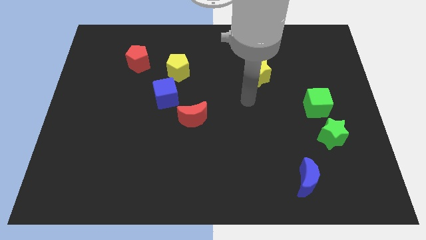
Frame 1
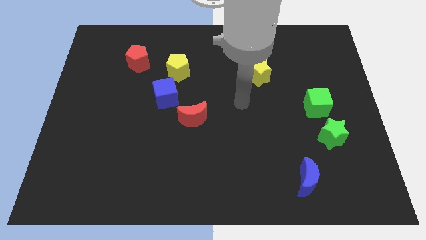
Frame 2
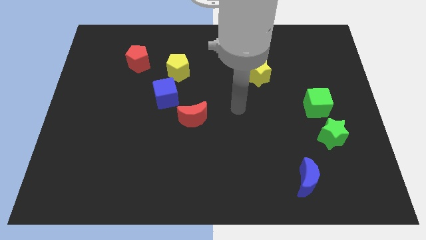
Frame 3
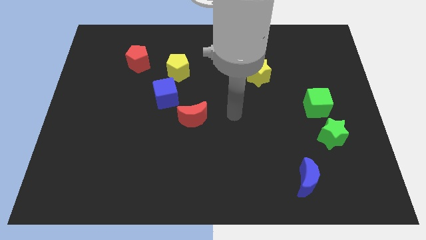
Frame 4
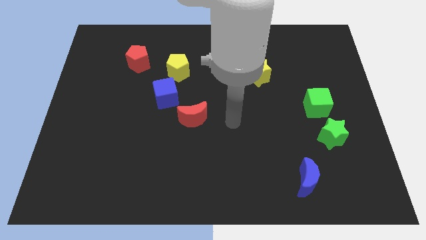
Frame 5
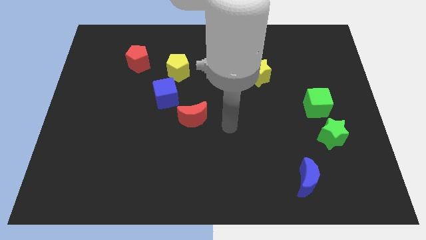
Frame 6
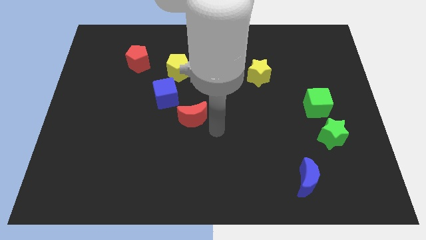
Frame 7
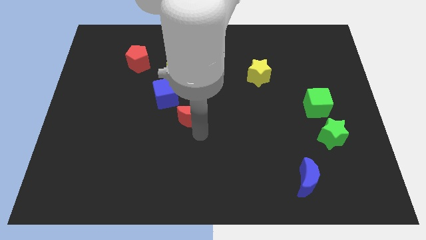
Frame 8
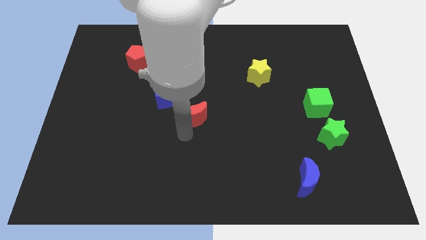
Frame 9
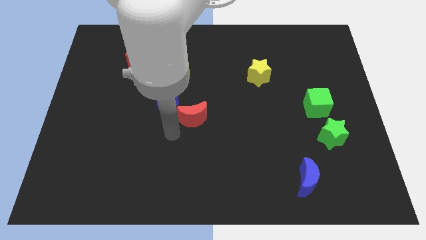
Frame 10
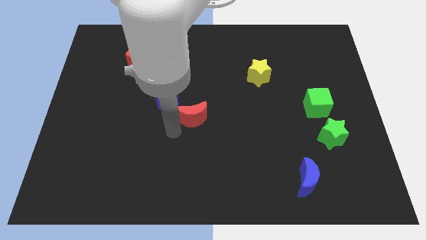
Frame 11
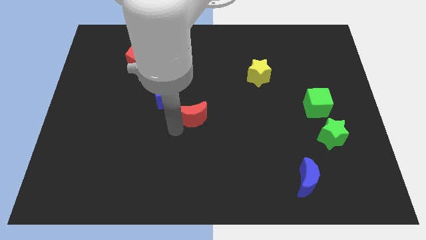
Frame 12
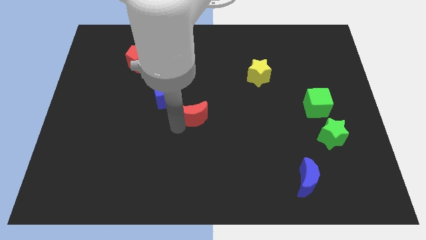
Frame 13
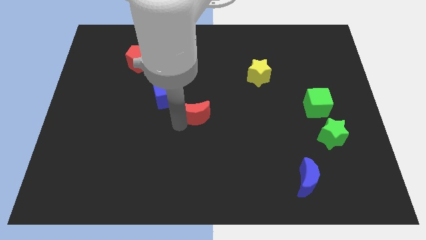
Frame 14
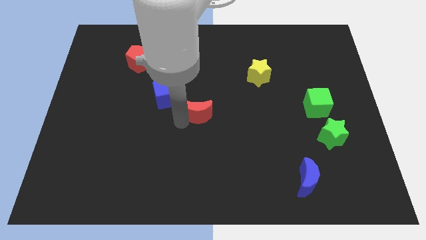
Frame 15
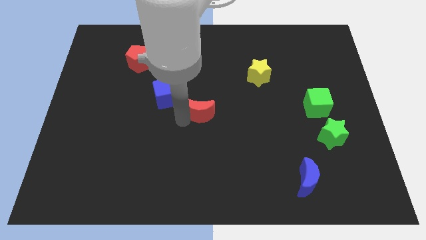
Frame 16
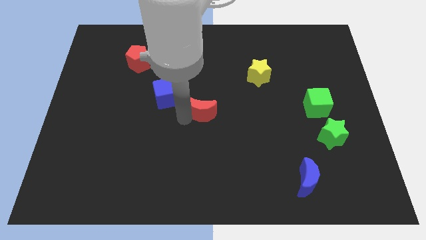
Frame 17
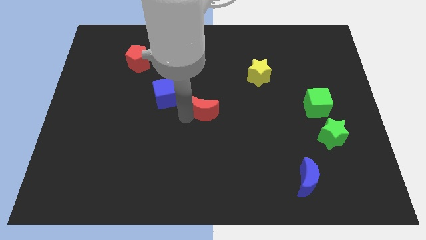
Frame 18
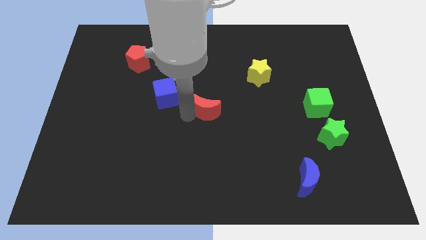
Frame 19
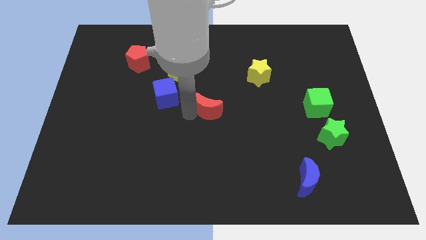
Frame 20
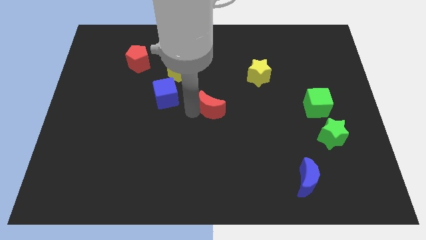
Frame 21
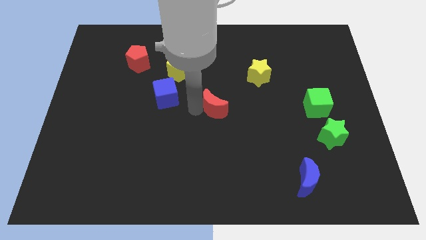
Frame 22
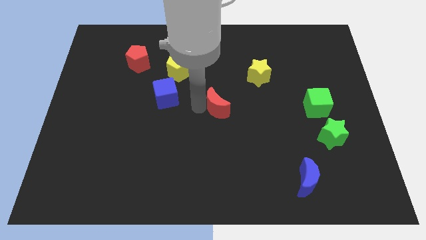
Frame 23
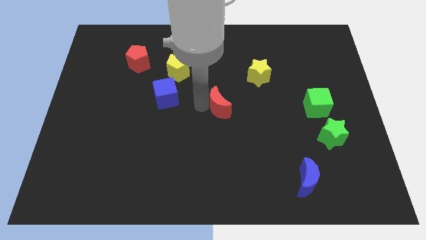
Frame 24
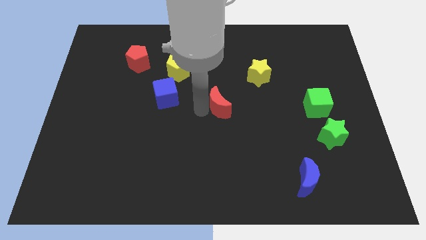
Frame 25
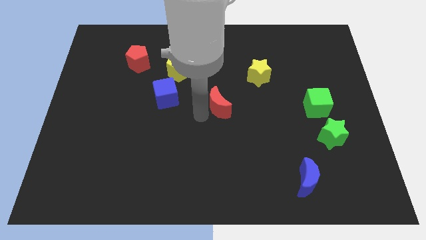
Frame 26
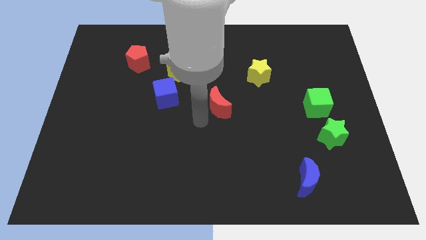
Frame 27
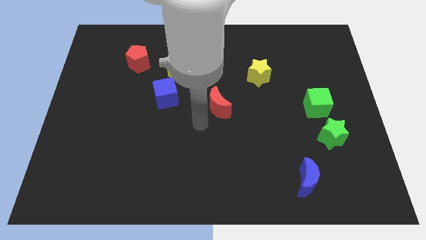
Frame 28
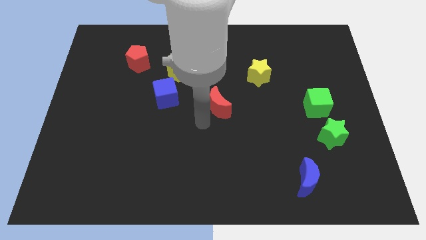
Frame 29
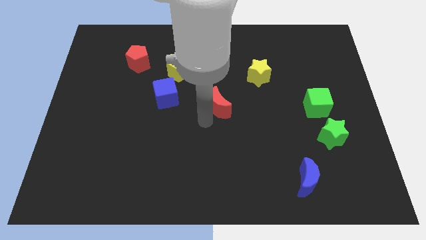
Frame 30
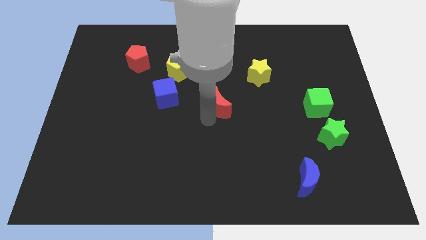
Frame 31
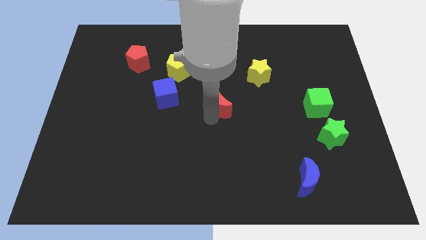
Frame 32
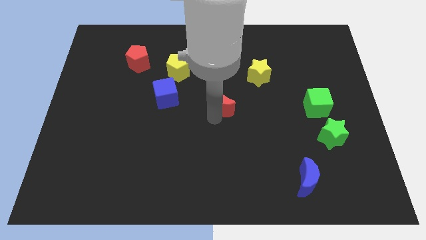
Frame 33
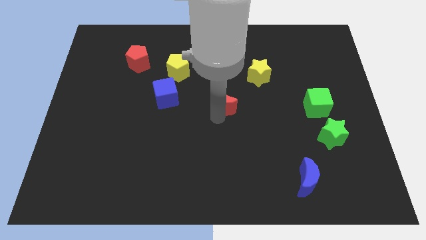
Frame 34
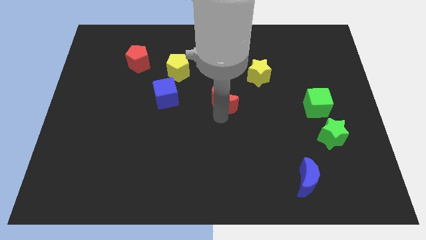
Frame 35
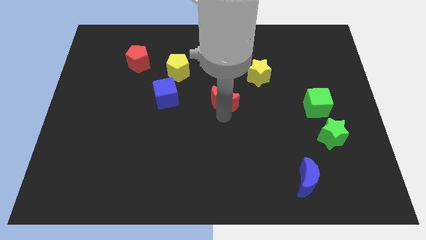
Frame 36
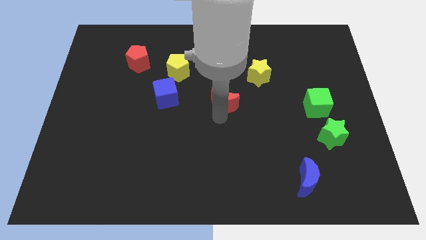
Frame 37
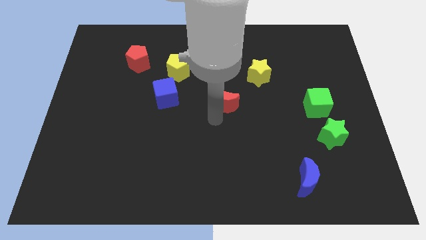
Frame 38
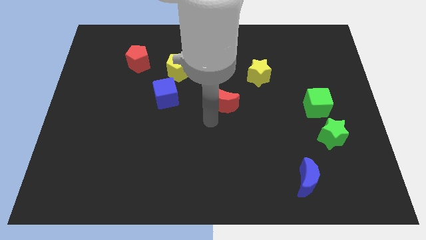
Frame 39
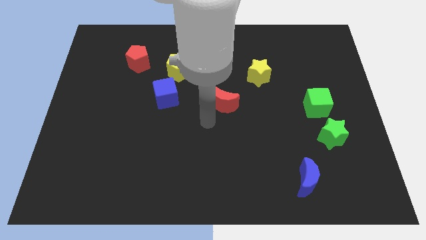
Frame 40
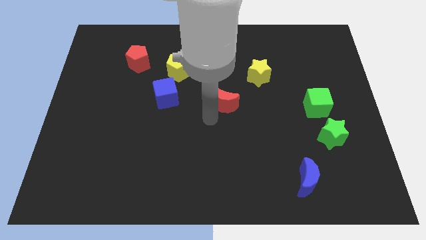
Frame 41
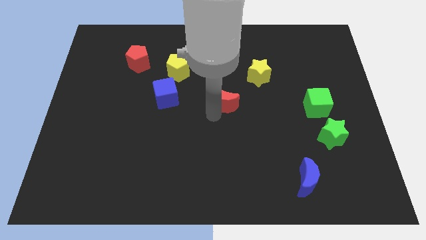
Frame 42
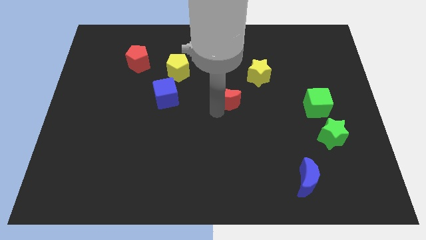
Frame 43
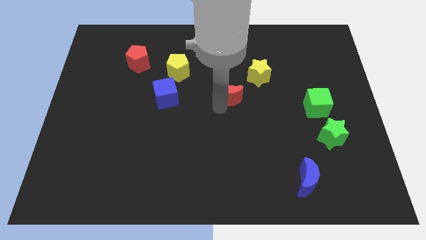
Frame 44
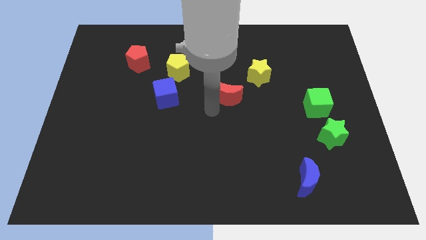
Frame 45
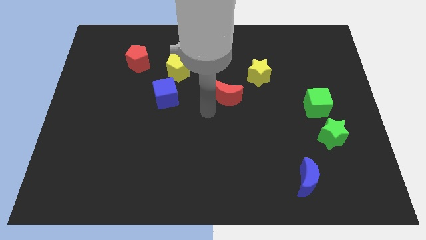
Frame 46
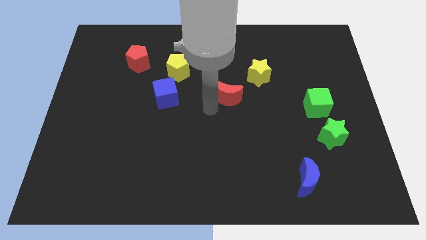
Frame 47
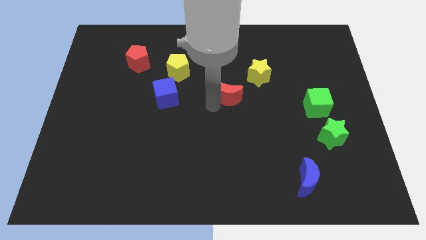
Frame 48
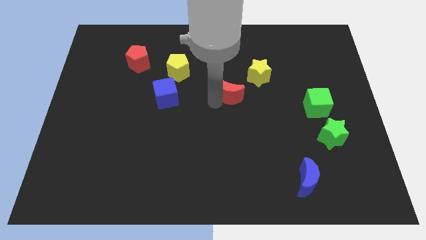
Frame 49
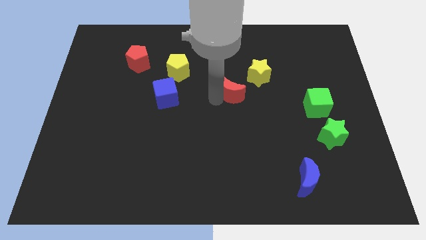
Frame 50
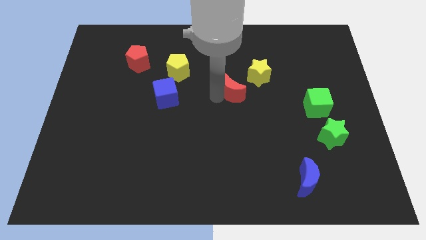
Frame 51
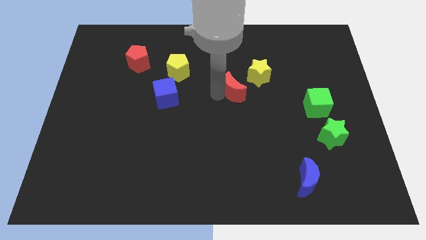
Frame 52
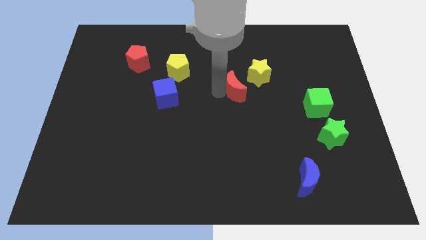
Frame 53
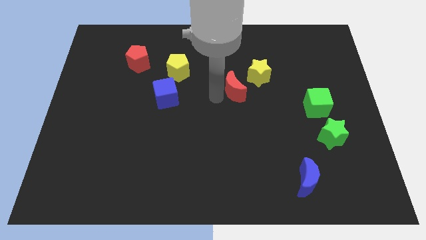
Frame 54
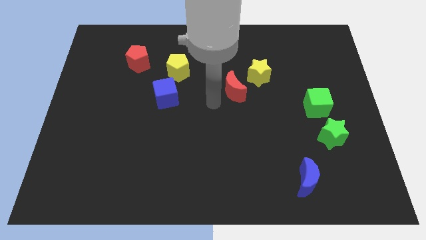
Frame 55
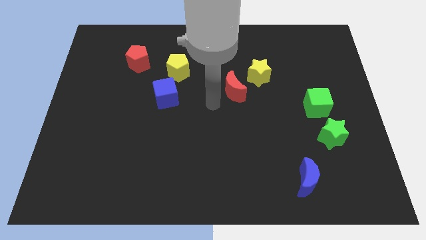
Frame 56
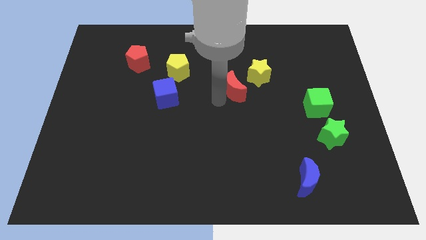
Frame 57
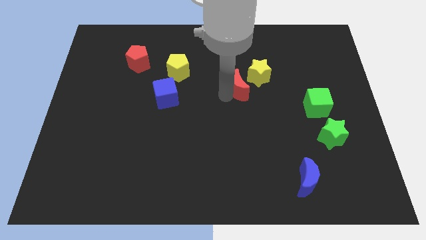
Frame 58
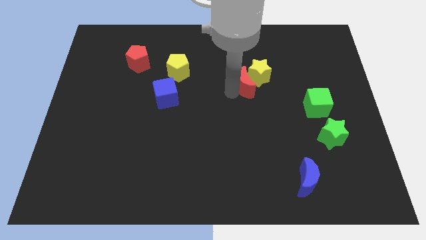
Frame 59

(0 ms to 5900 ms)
put the red moon to the yellow star

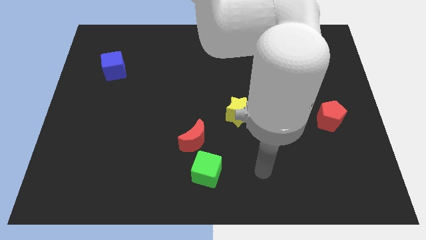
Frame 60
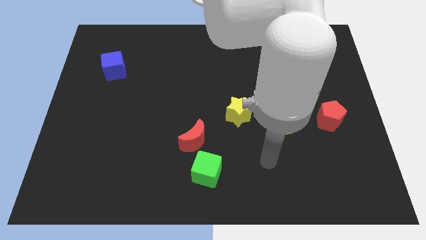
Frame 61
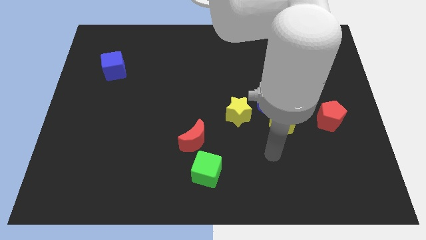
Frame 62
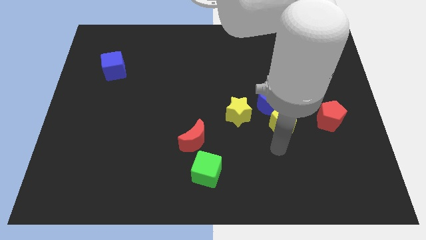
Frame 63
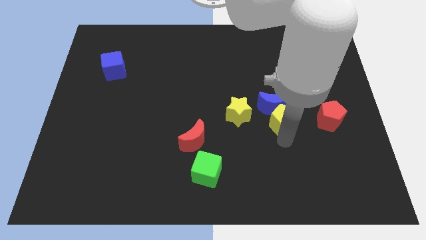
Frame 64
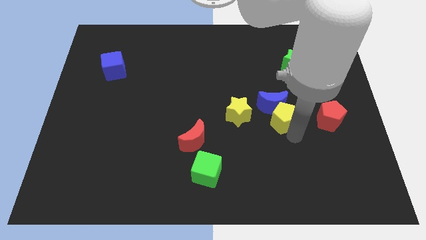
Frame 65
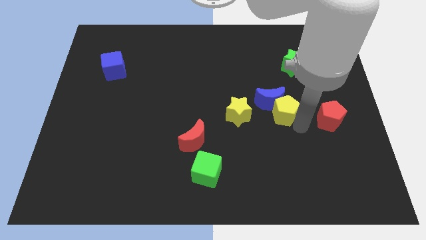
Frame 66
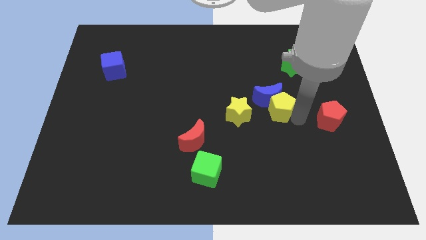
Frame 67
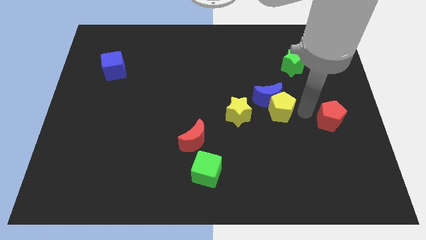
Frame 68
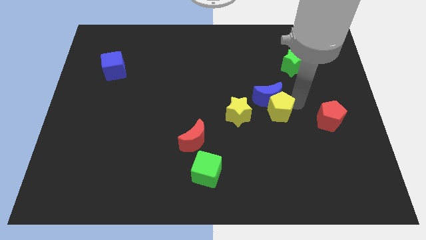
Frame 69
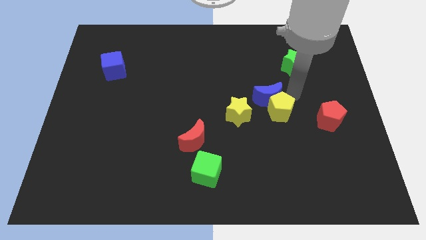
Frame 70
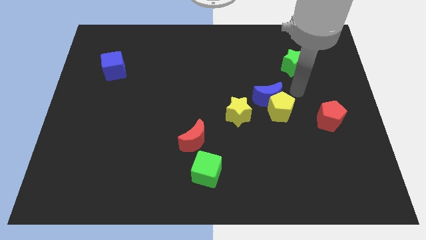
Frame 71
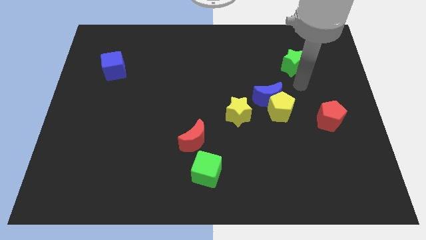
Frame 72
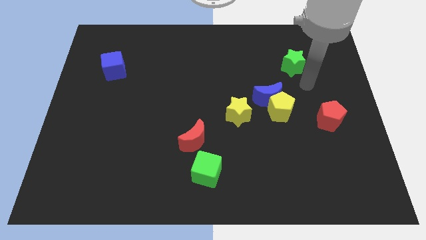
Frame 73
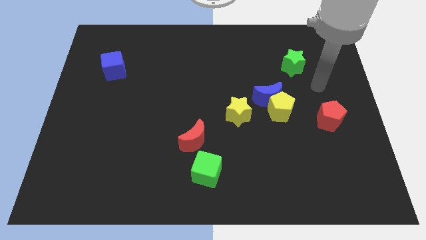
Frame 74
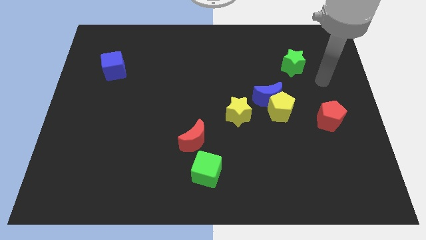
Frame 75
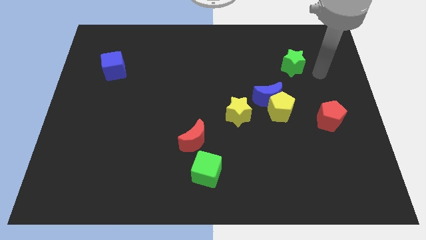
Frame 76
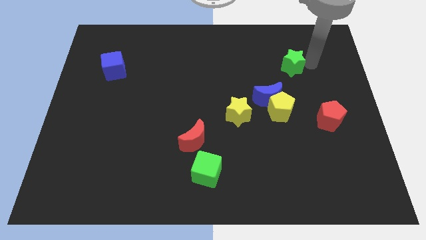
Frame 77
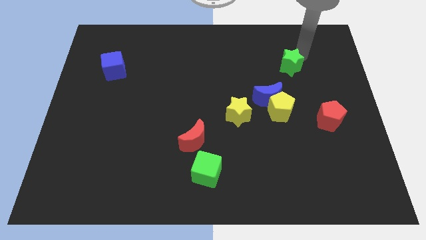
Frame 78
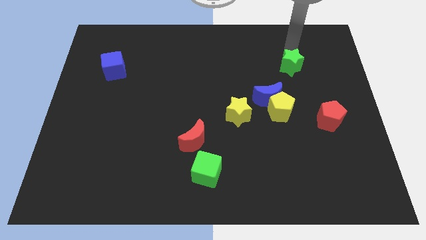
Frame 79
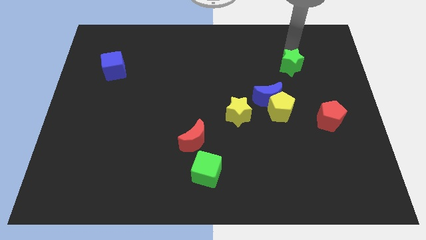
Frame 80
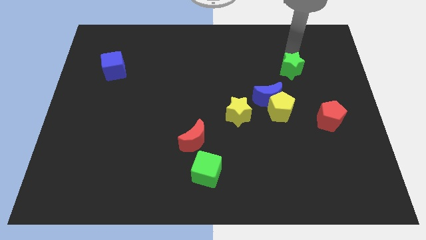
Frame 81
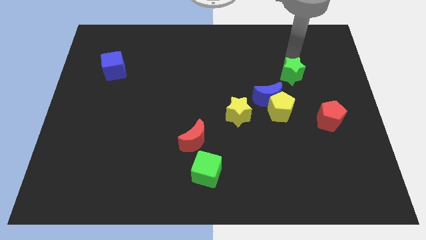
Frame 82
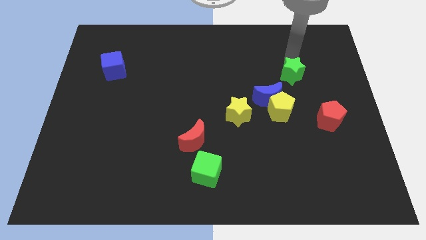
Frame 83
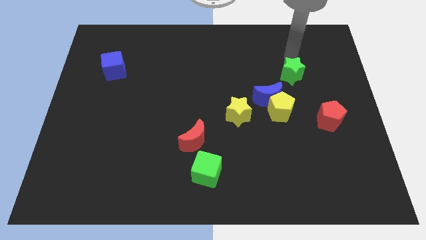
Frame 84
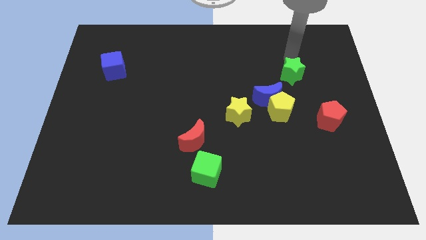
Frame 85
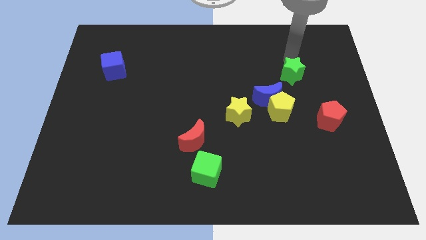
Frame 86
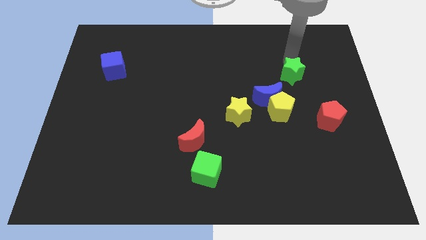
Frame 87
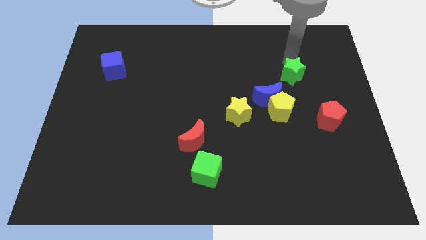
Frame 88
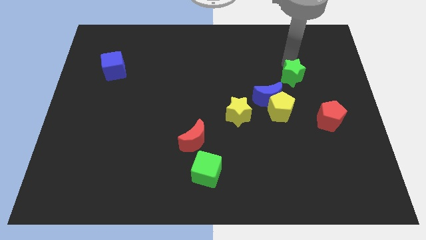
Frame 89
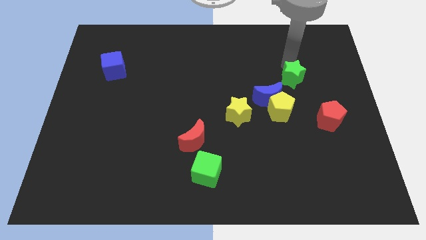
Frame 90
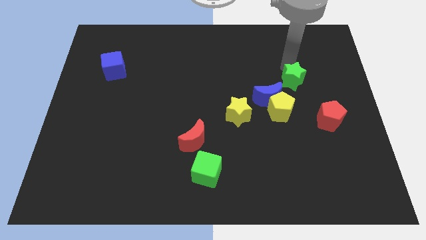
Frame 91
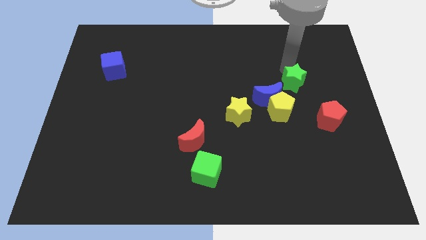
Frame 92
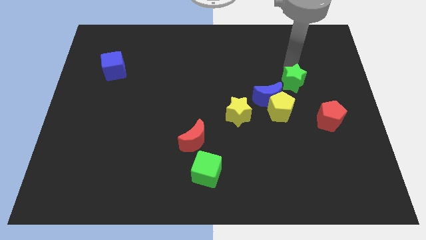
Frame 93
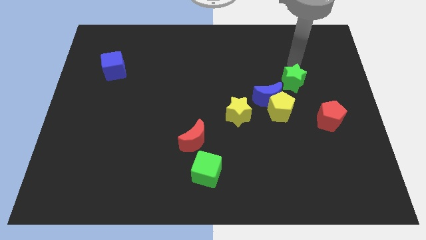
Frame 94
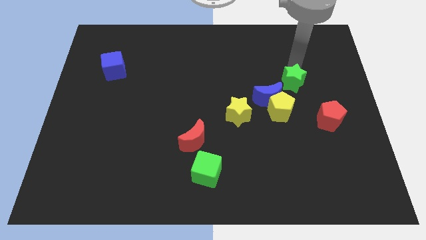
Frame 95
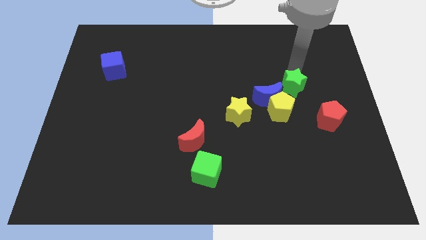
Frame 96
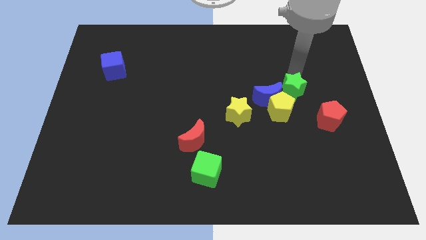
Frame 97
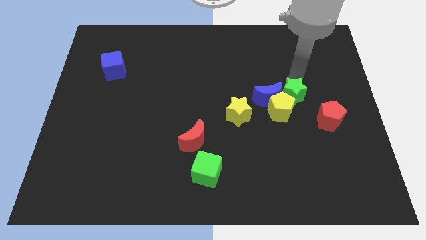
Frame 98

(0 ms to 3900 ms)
slide the green star close to the yellow pentagon
